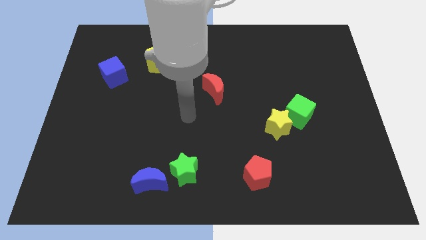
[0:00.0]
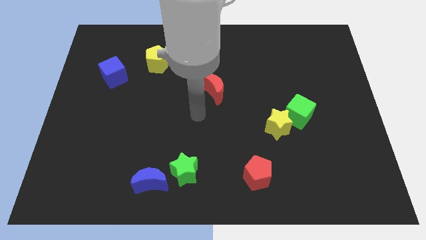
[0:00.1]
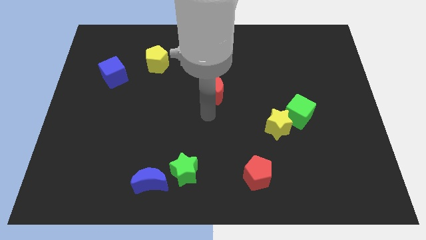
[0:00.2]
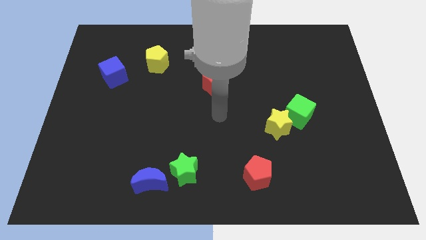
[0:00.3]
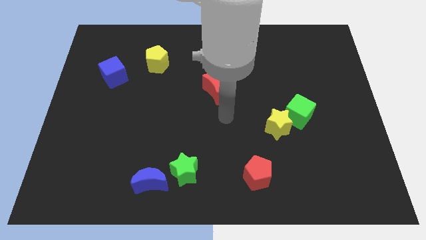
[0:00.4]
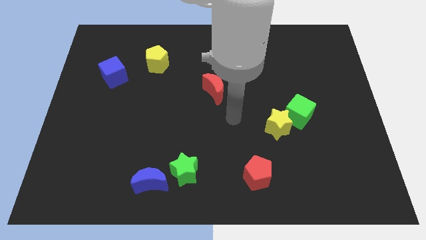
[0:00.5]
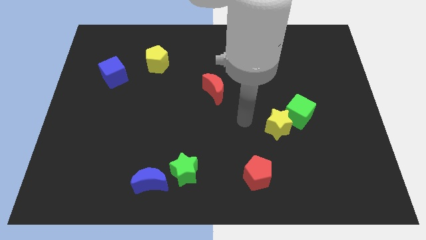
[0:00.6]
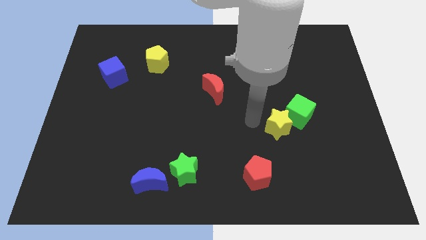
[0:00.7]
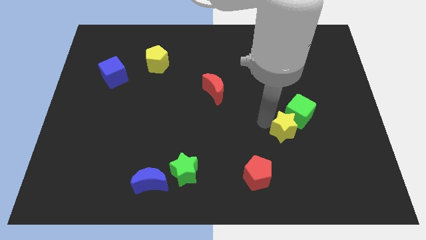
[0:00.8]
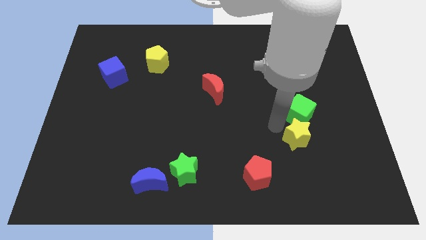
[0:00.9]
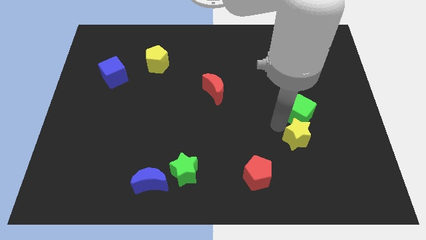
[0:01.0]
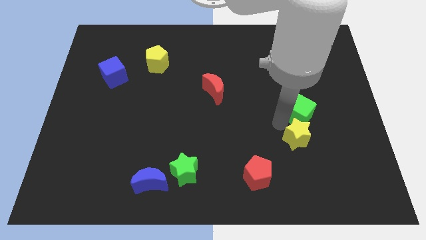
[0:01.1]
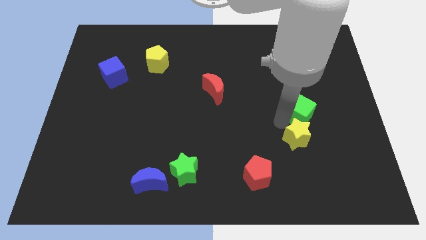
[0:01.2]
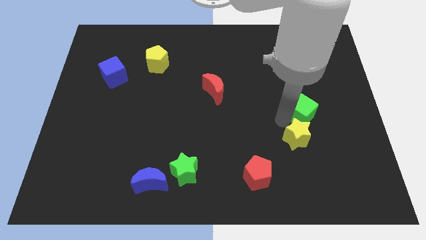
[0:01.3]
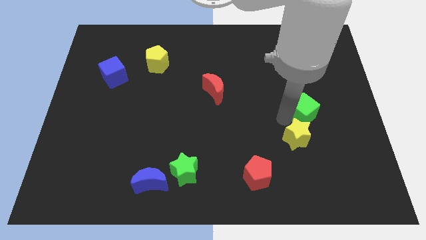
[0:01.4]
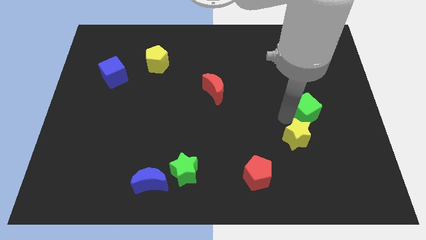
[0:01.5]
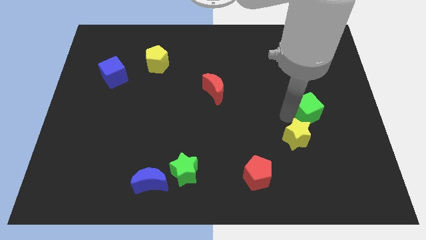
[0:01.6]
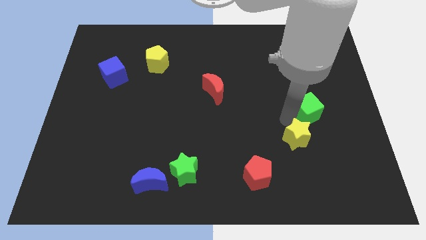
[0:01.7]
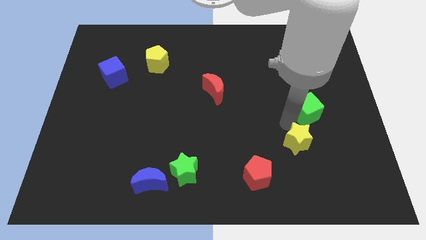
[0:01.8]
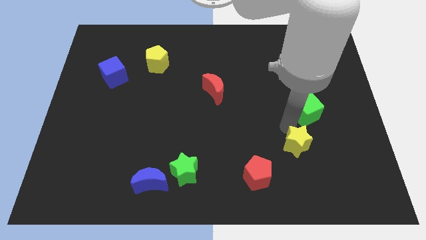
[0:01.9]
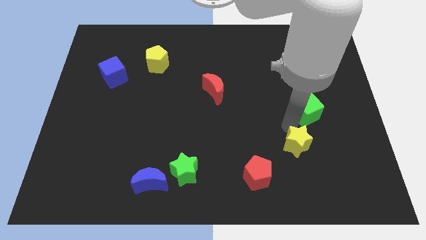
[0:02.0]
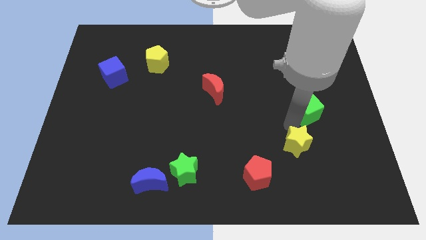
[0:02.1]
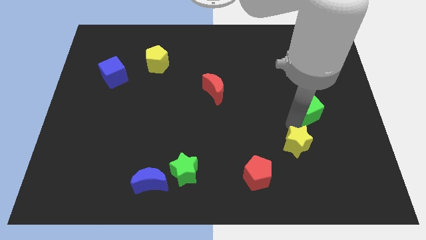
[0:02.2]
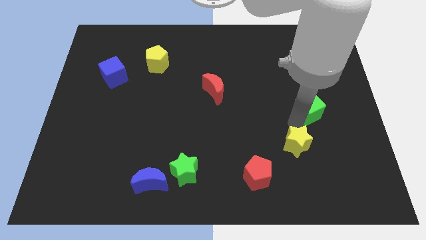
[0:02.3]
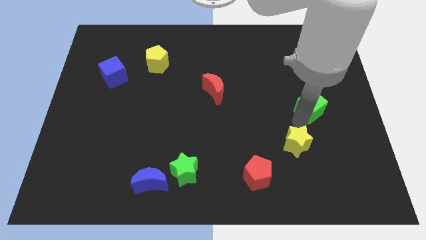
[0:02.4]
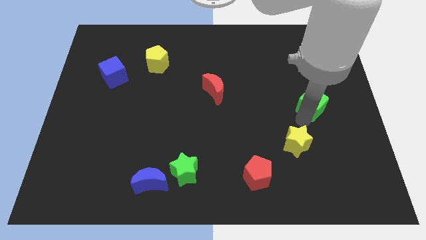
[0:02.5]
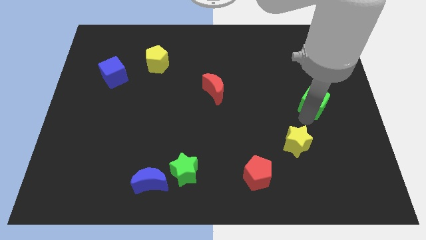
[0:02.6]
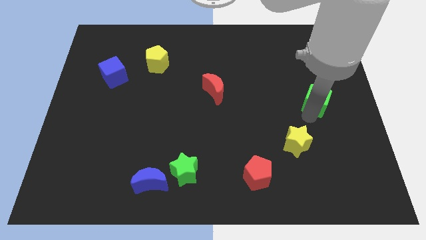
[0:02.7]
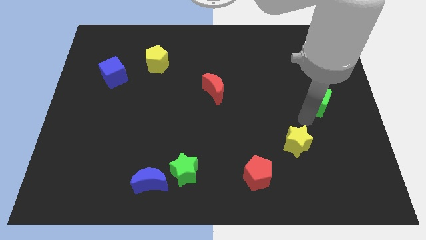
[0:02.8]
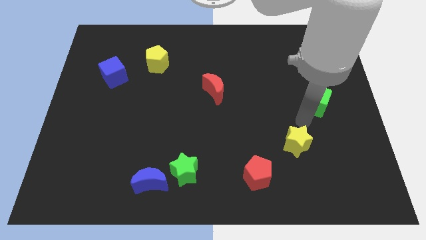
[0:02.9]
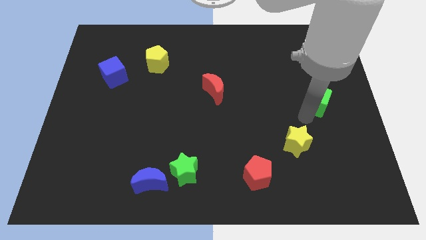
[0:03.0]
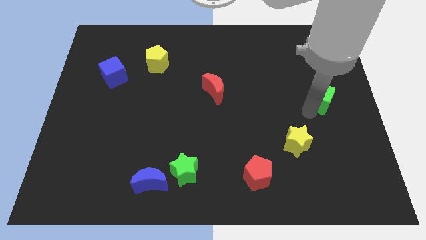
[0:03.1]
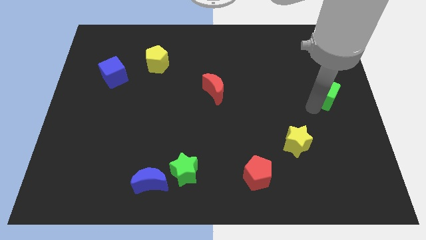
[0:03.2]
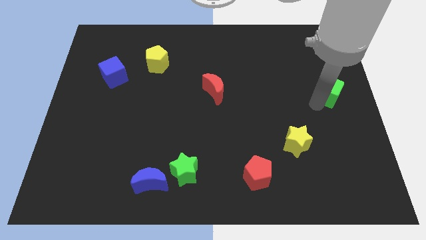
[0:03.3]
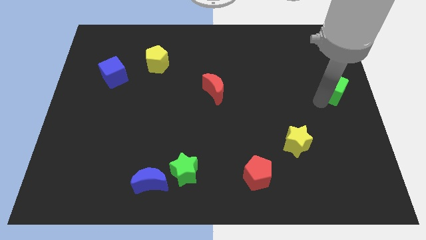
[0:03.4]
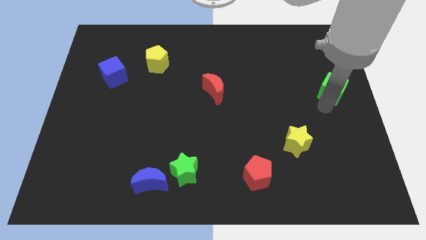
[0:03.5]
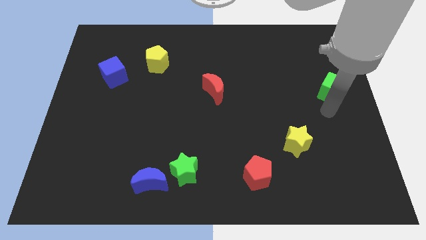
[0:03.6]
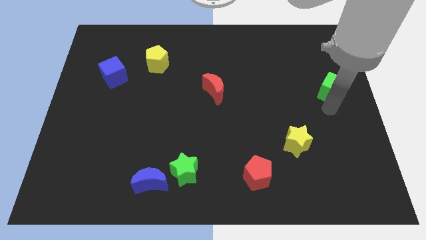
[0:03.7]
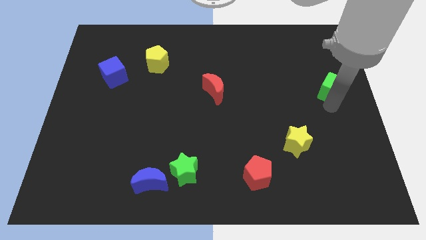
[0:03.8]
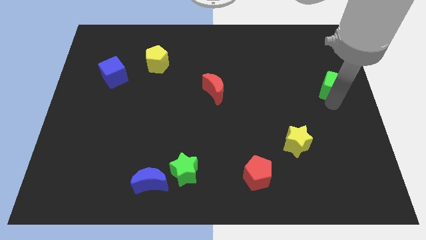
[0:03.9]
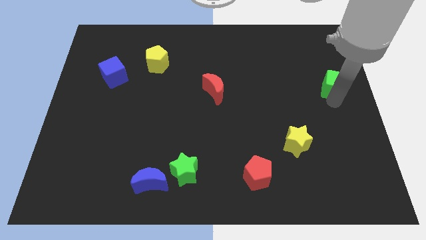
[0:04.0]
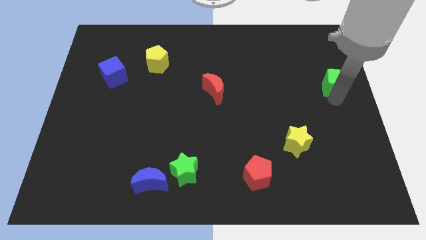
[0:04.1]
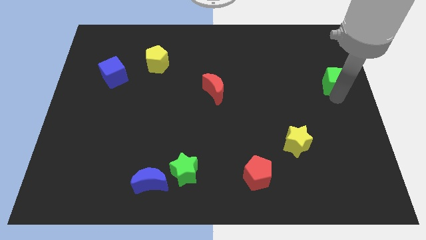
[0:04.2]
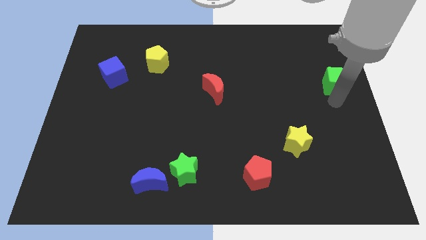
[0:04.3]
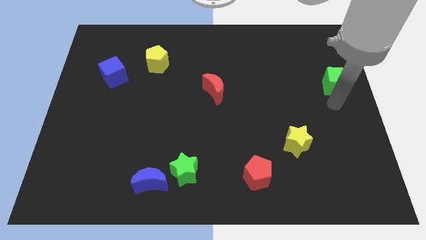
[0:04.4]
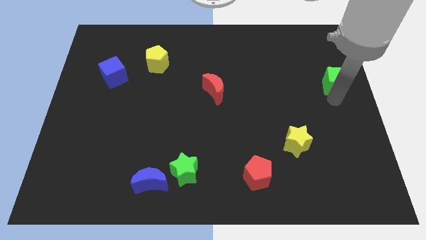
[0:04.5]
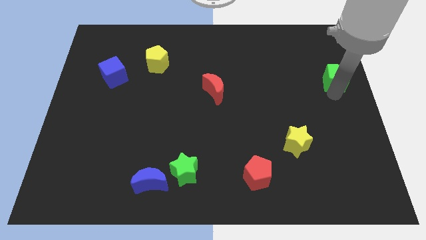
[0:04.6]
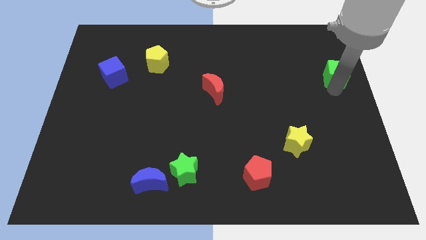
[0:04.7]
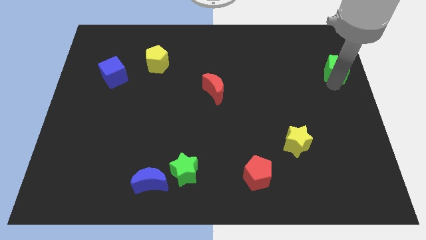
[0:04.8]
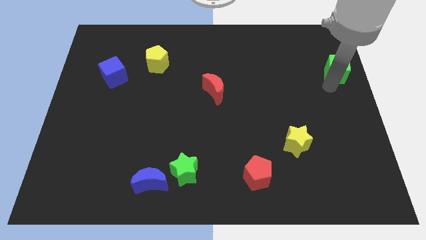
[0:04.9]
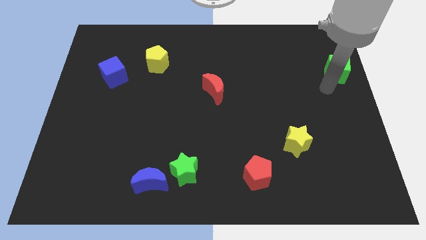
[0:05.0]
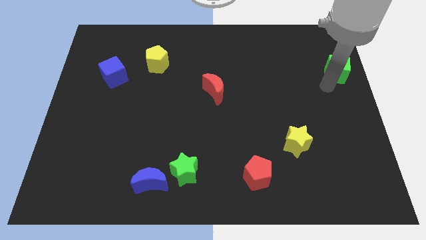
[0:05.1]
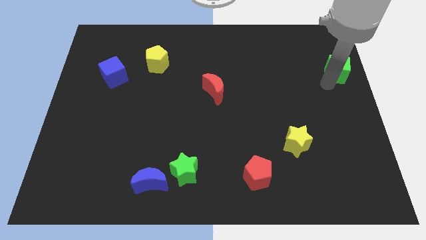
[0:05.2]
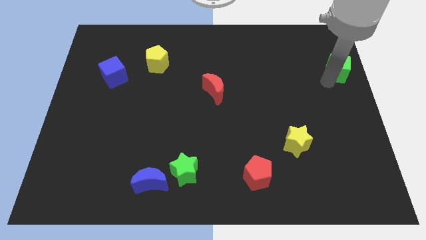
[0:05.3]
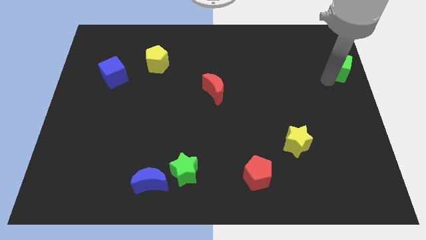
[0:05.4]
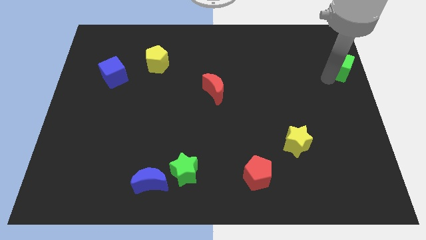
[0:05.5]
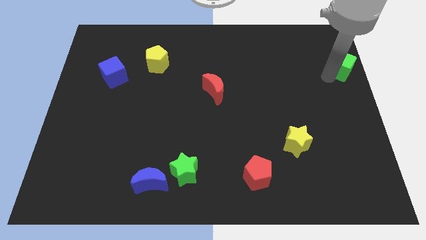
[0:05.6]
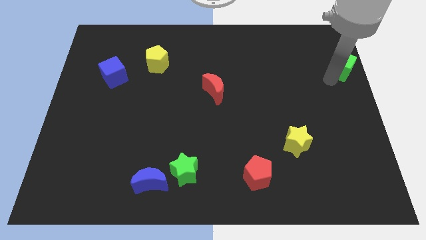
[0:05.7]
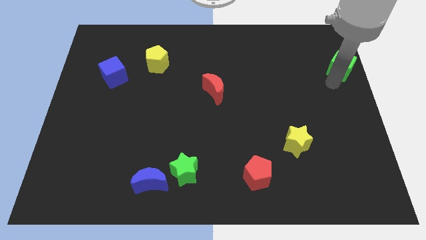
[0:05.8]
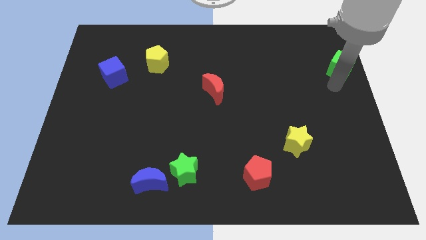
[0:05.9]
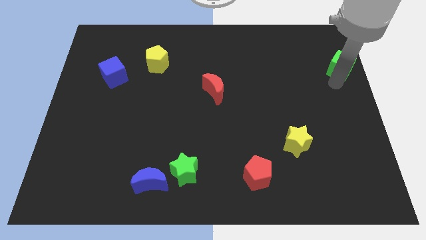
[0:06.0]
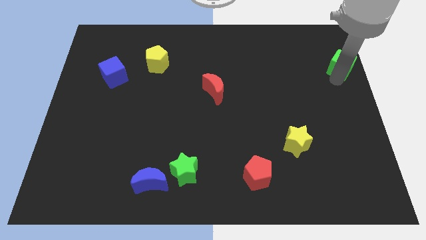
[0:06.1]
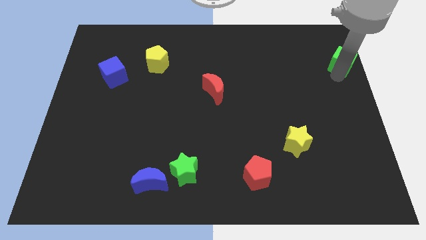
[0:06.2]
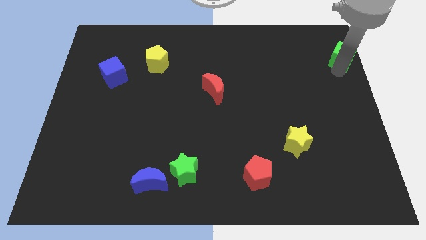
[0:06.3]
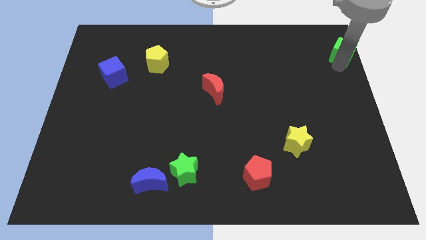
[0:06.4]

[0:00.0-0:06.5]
push the green cube to the top right corner
